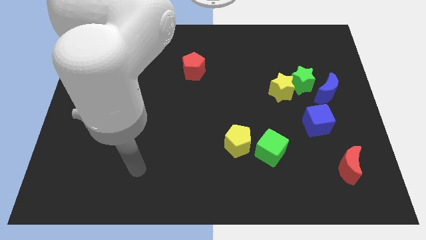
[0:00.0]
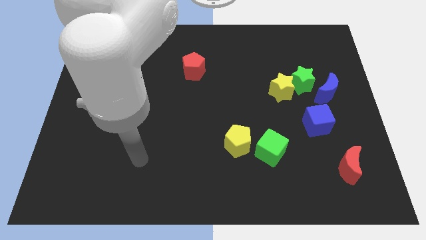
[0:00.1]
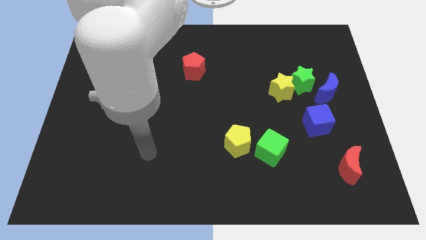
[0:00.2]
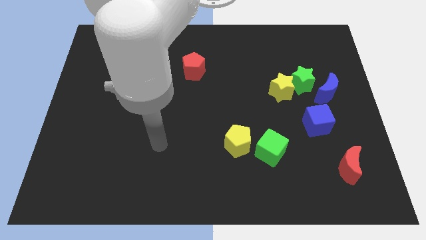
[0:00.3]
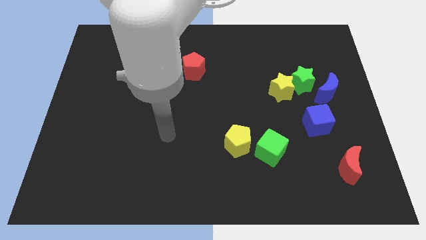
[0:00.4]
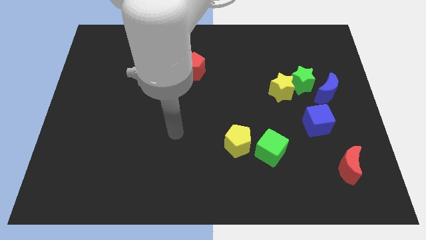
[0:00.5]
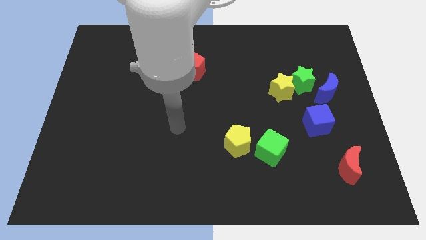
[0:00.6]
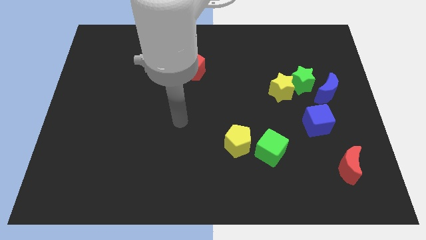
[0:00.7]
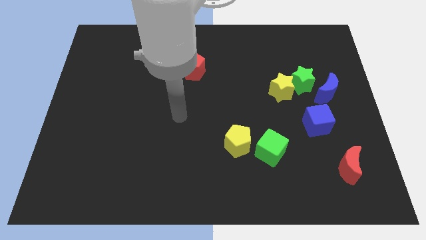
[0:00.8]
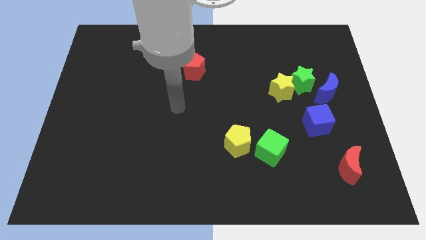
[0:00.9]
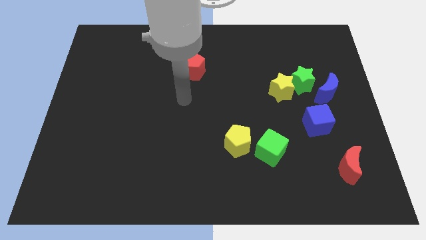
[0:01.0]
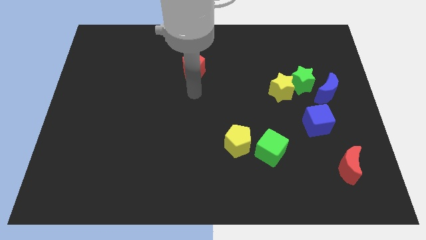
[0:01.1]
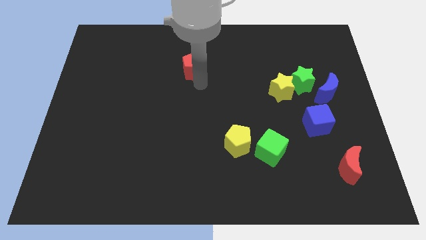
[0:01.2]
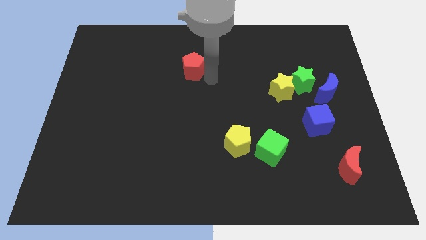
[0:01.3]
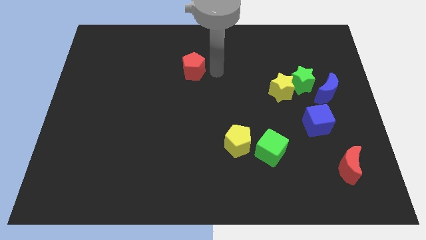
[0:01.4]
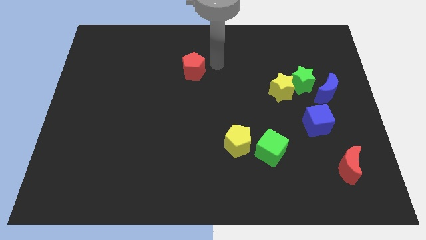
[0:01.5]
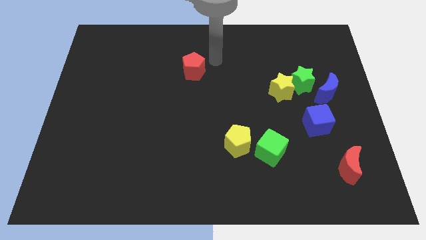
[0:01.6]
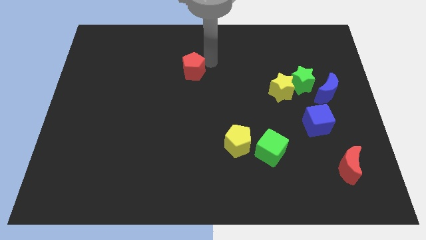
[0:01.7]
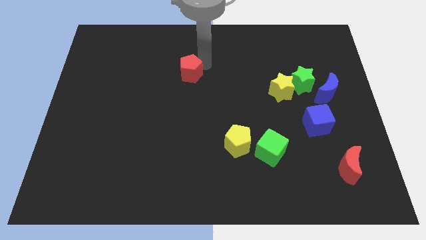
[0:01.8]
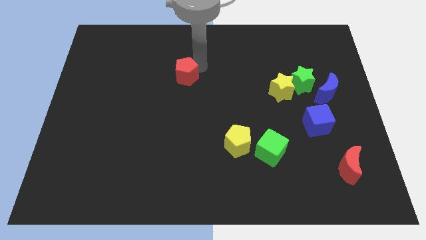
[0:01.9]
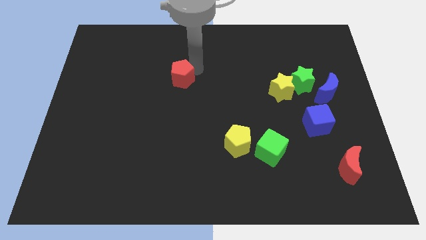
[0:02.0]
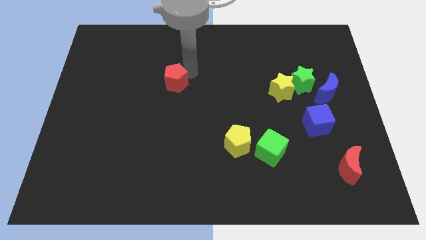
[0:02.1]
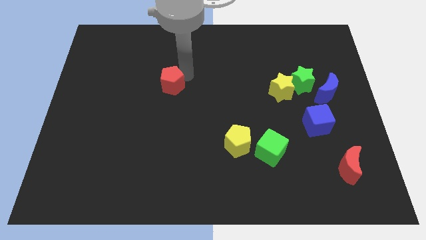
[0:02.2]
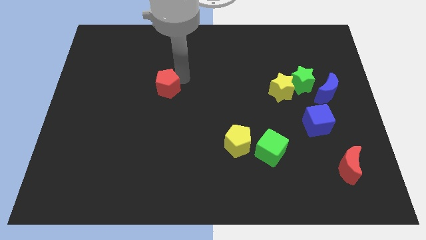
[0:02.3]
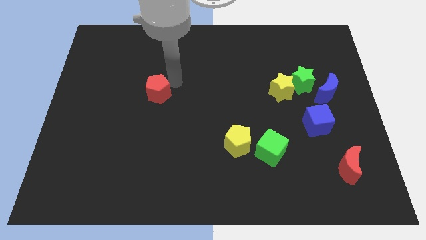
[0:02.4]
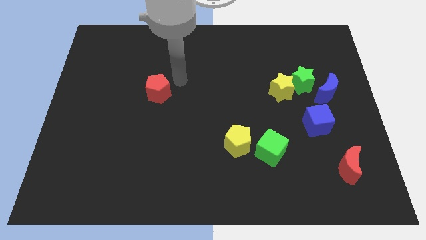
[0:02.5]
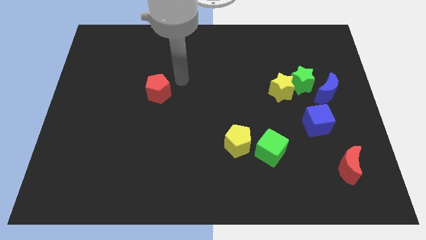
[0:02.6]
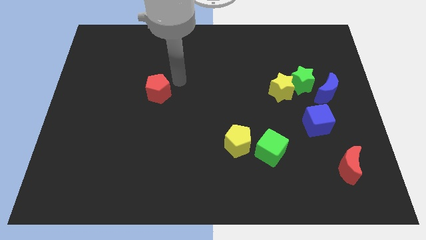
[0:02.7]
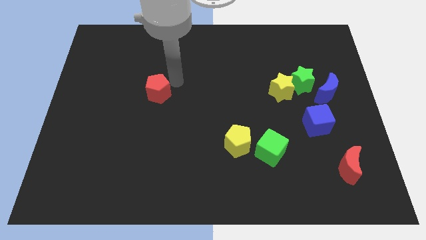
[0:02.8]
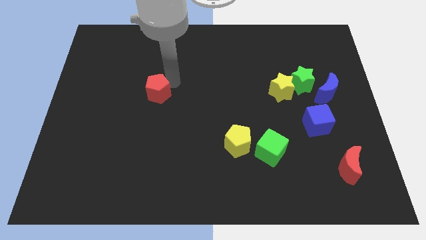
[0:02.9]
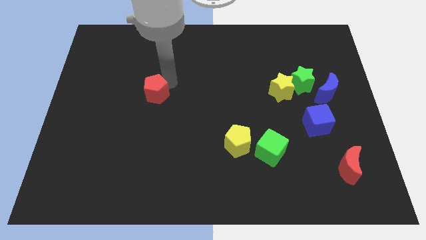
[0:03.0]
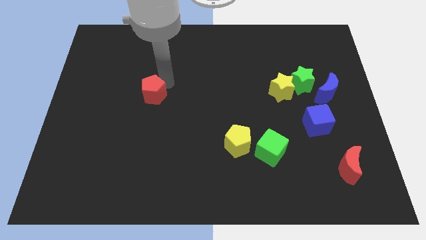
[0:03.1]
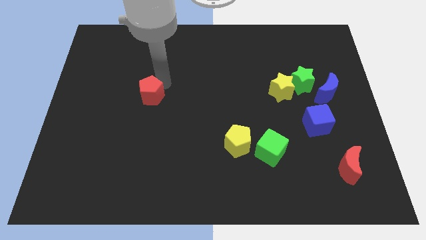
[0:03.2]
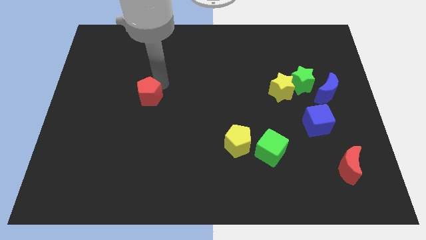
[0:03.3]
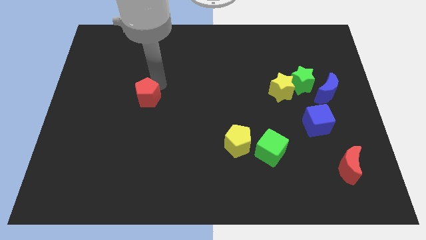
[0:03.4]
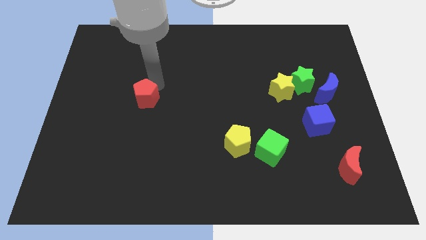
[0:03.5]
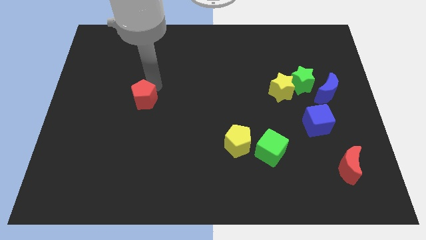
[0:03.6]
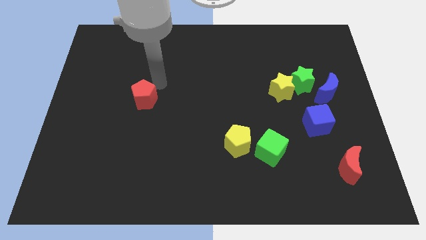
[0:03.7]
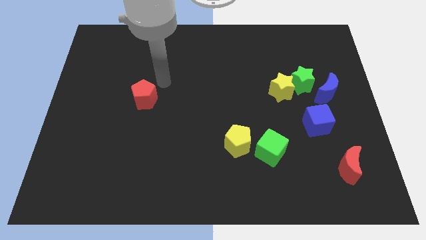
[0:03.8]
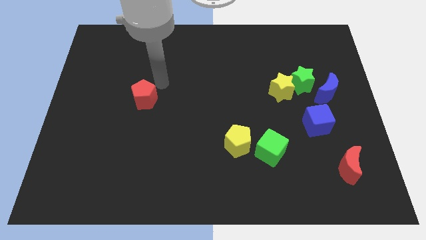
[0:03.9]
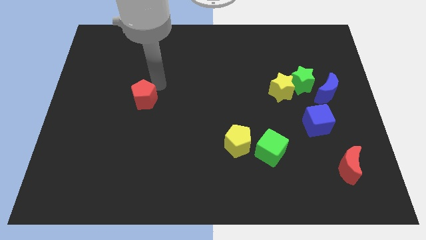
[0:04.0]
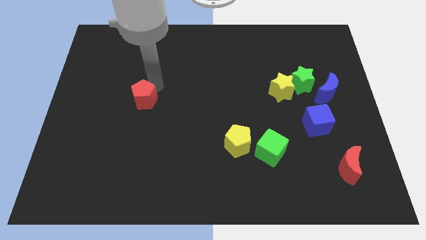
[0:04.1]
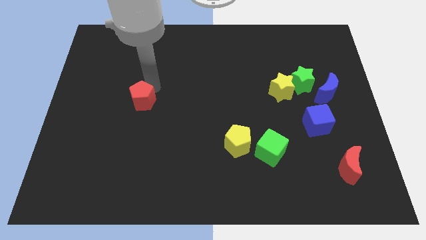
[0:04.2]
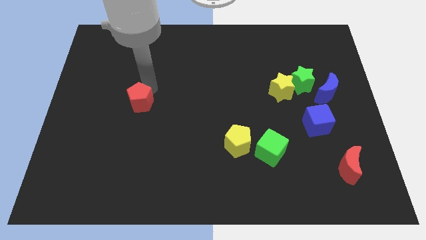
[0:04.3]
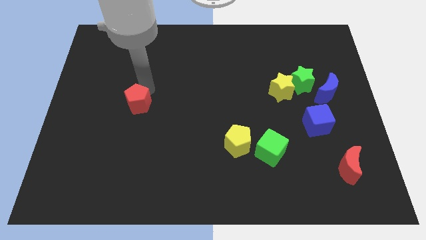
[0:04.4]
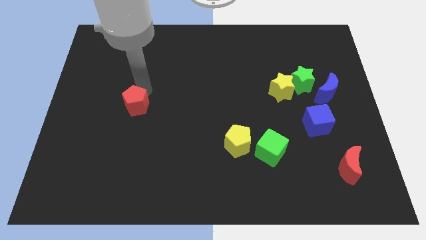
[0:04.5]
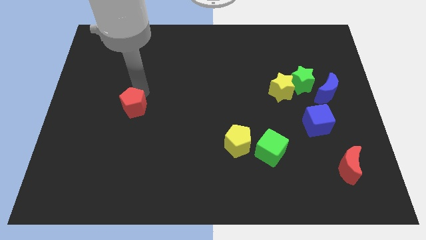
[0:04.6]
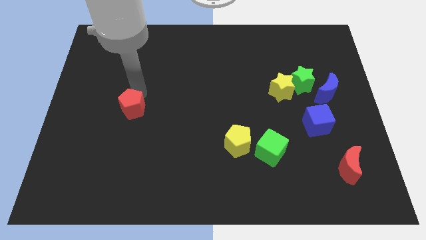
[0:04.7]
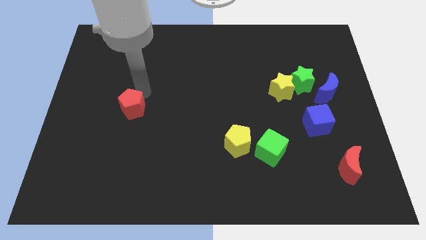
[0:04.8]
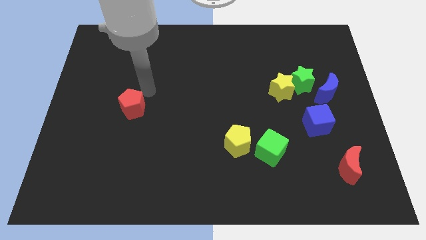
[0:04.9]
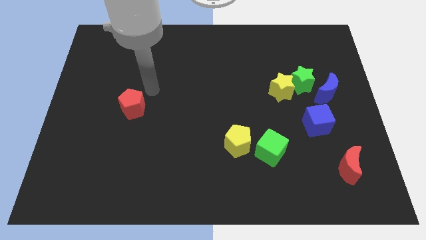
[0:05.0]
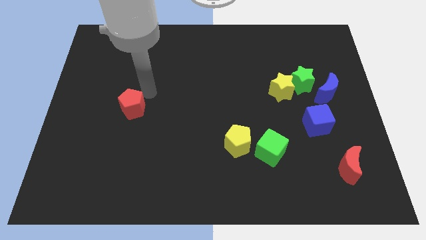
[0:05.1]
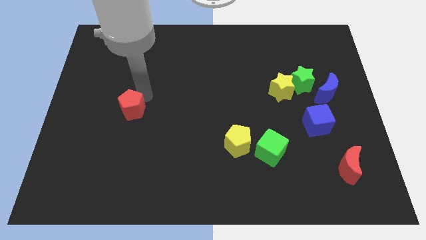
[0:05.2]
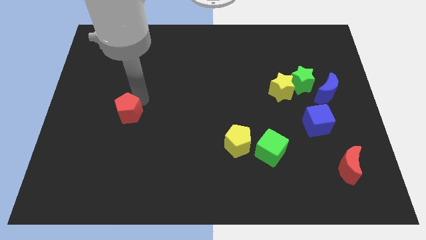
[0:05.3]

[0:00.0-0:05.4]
move the red pentagon downwards and to the left

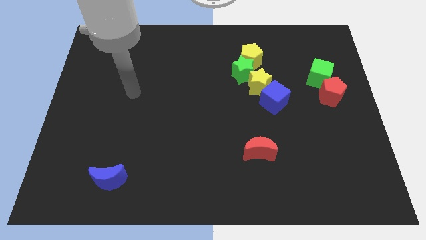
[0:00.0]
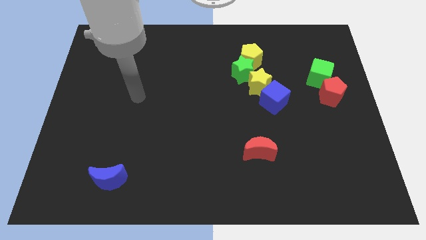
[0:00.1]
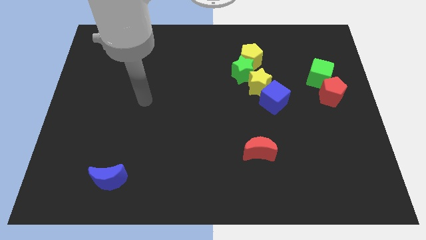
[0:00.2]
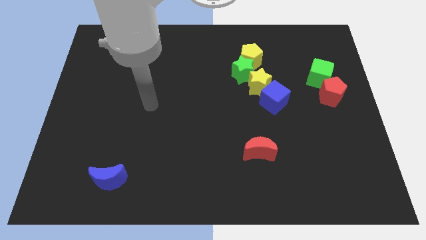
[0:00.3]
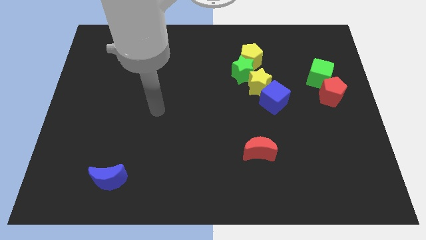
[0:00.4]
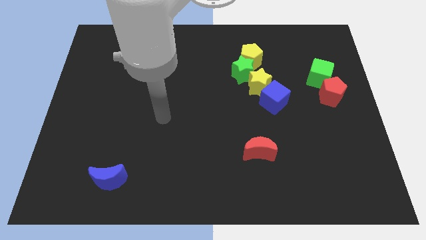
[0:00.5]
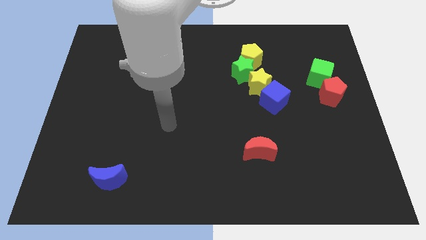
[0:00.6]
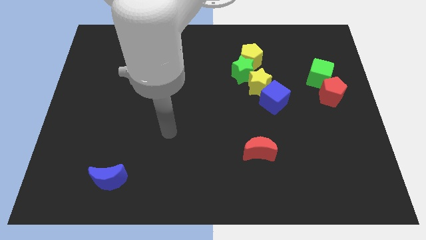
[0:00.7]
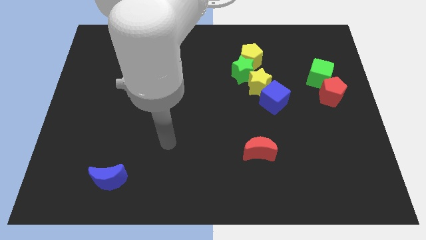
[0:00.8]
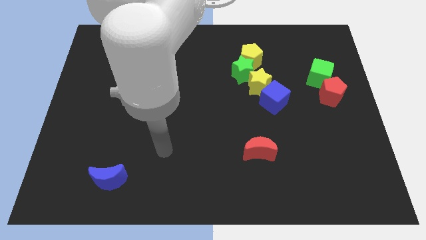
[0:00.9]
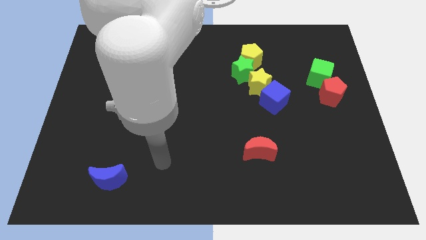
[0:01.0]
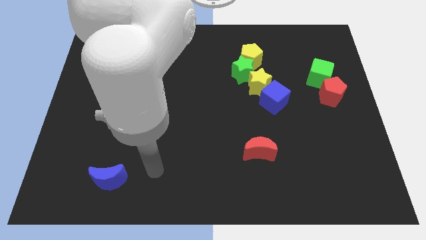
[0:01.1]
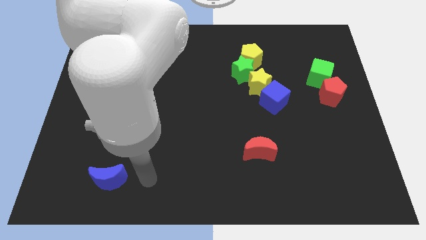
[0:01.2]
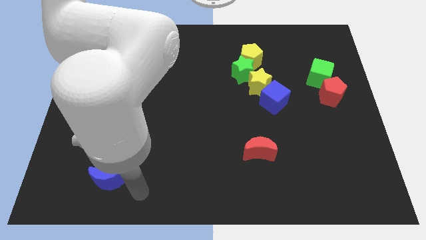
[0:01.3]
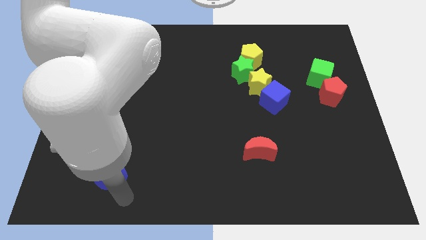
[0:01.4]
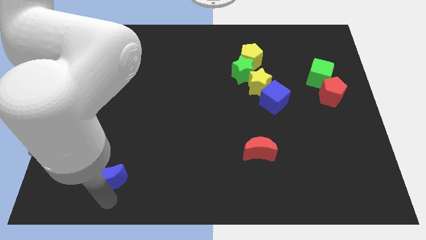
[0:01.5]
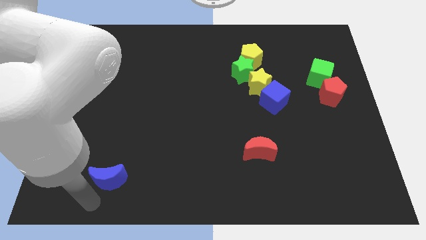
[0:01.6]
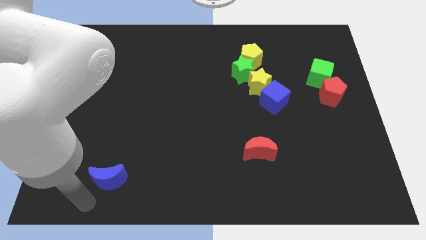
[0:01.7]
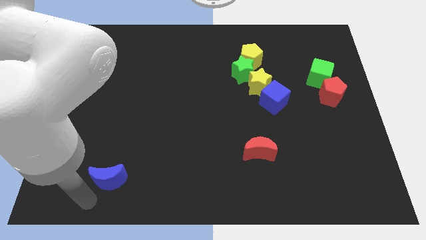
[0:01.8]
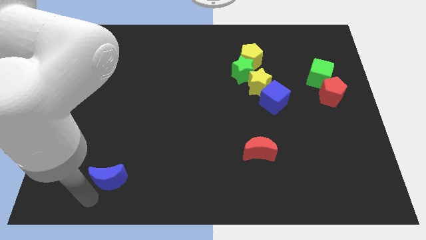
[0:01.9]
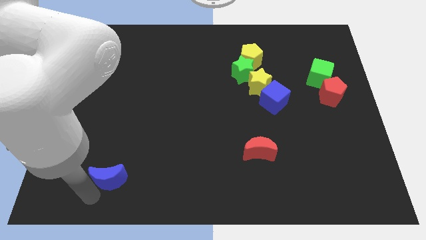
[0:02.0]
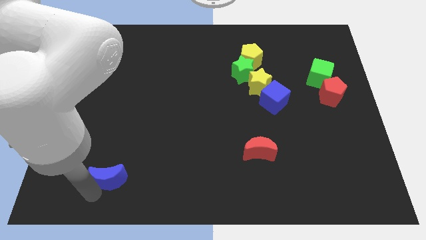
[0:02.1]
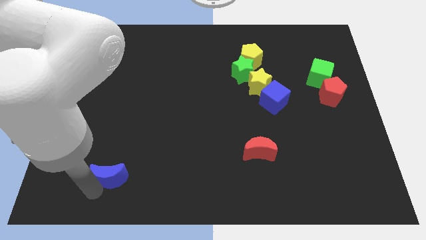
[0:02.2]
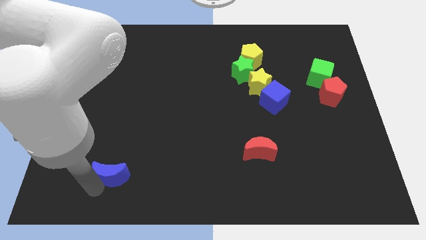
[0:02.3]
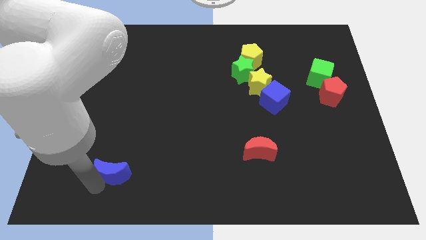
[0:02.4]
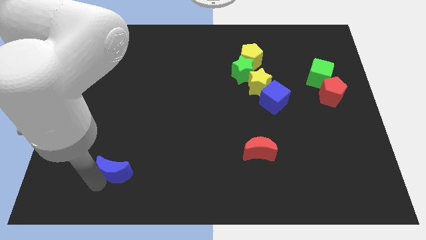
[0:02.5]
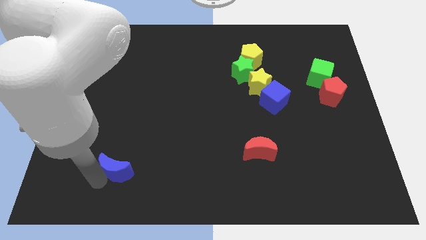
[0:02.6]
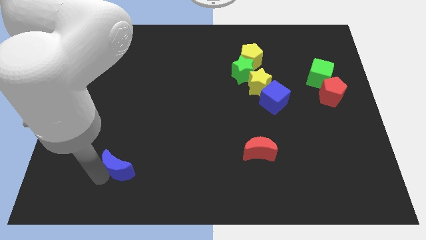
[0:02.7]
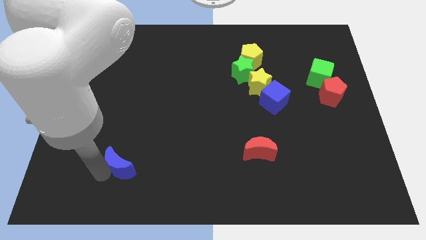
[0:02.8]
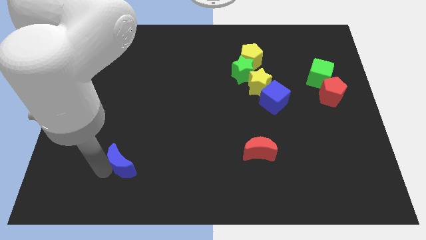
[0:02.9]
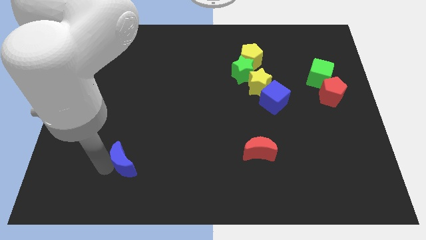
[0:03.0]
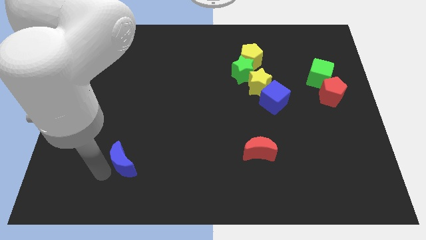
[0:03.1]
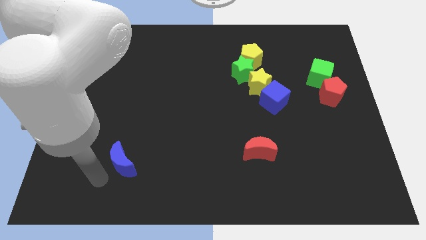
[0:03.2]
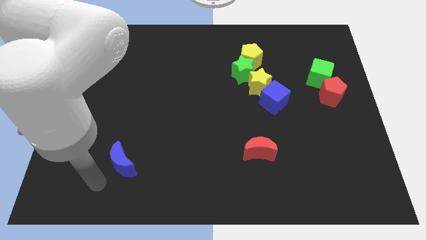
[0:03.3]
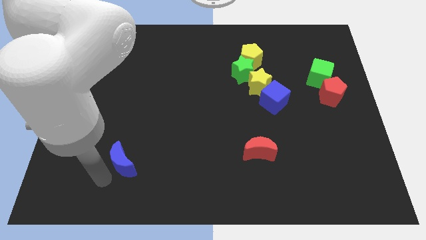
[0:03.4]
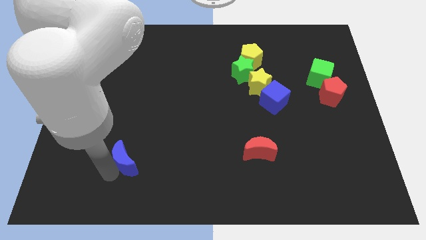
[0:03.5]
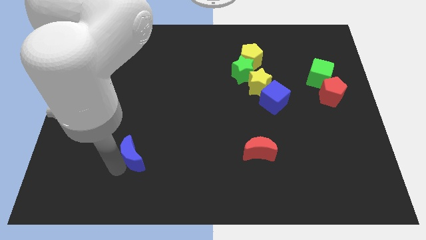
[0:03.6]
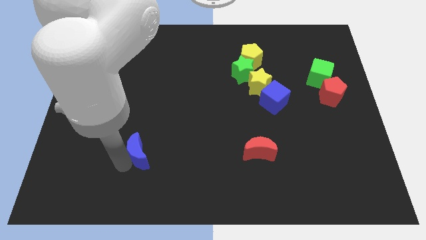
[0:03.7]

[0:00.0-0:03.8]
slide the blue moon a little upwards and then to the right
